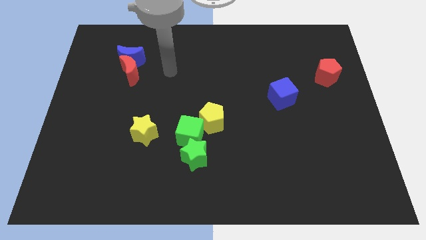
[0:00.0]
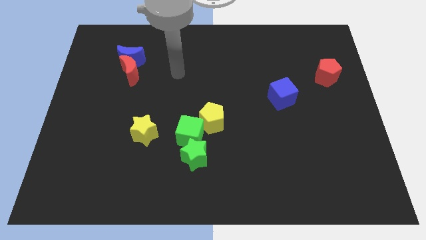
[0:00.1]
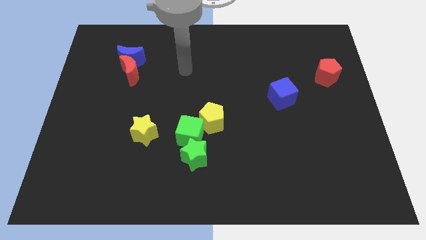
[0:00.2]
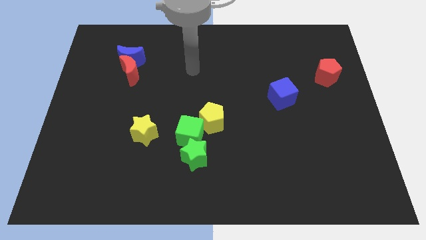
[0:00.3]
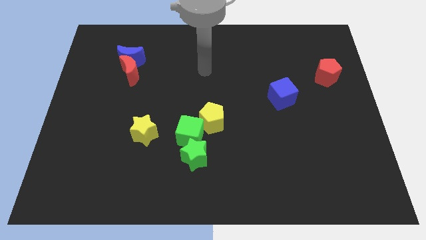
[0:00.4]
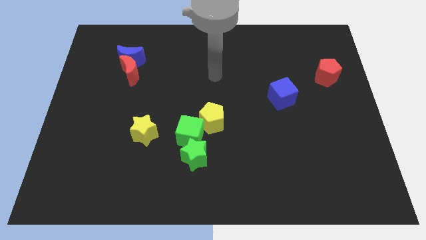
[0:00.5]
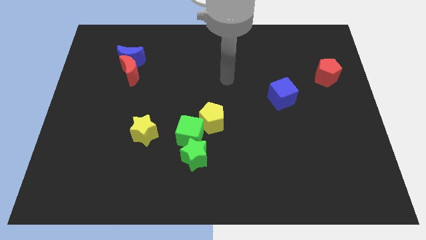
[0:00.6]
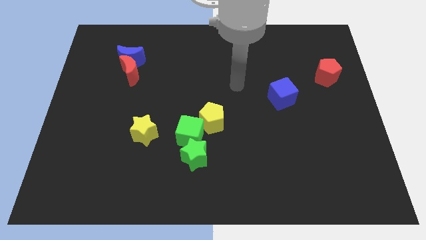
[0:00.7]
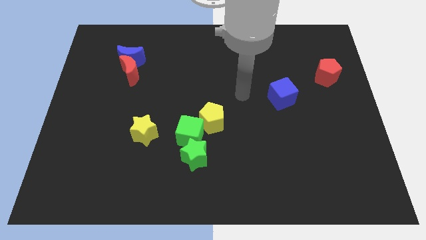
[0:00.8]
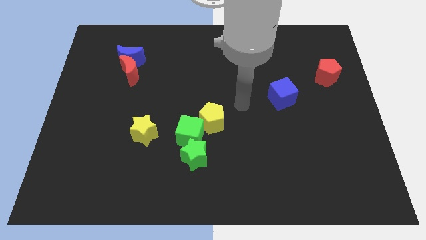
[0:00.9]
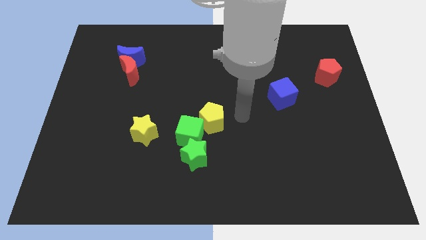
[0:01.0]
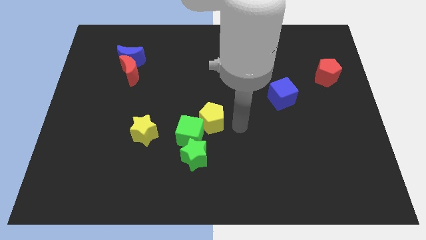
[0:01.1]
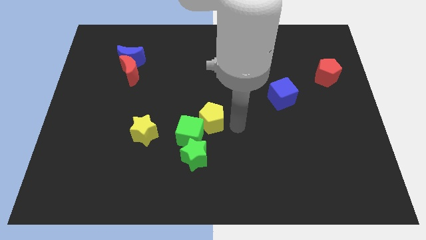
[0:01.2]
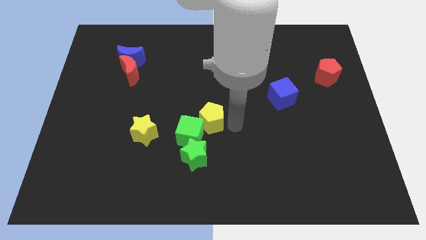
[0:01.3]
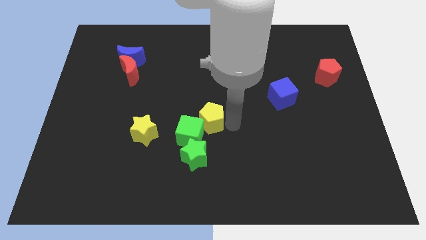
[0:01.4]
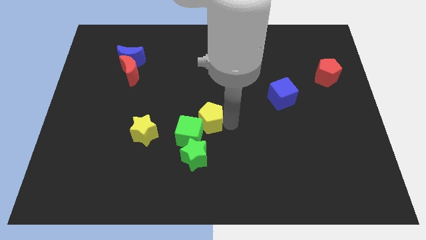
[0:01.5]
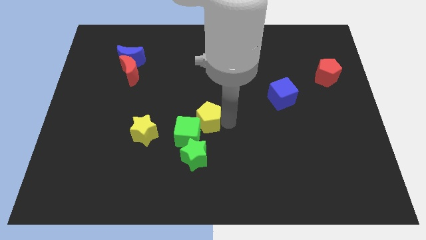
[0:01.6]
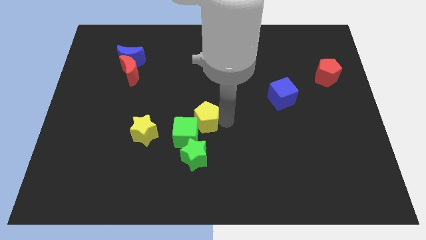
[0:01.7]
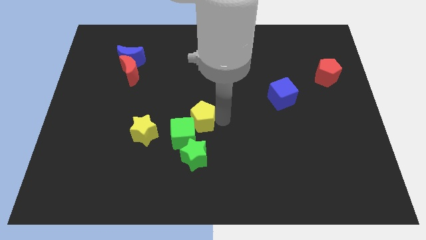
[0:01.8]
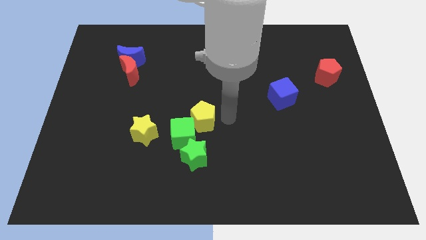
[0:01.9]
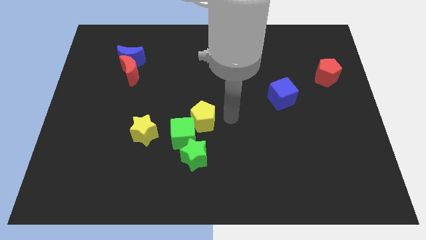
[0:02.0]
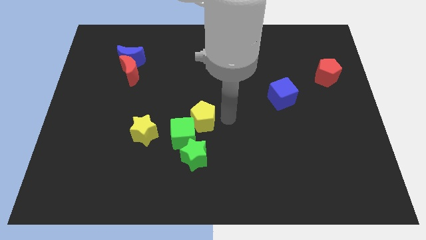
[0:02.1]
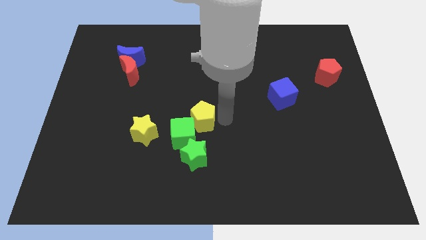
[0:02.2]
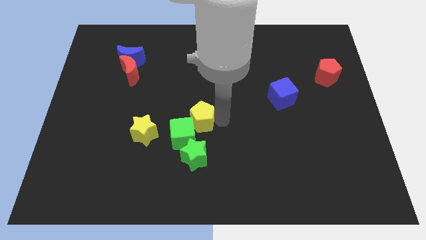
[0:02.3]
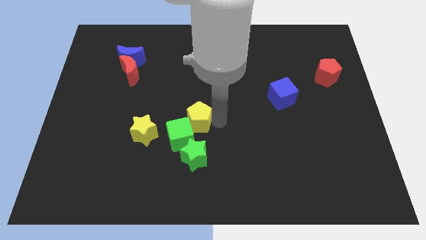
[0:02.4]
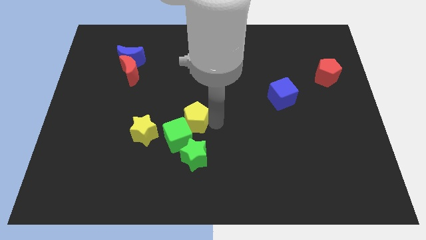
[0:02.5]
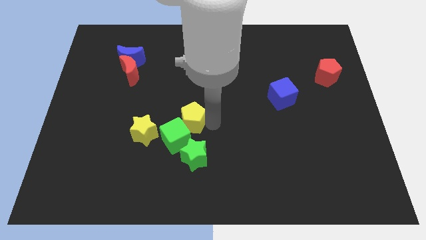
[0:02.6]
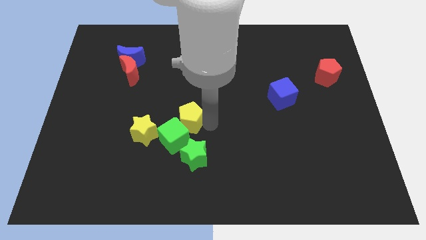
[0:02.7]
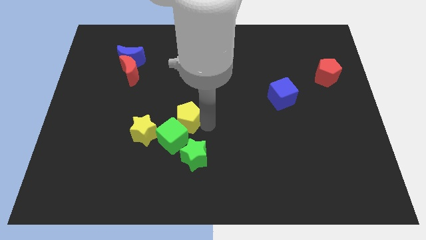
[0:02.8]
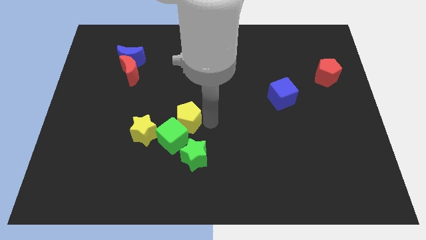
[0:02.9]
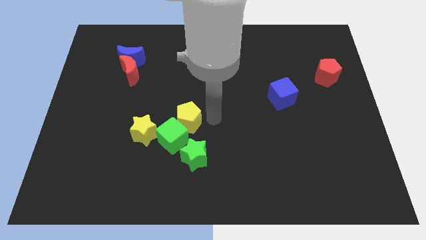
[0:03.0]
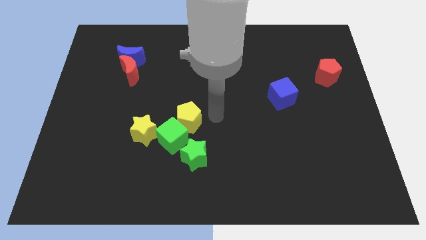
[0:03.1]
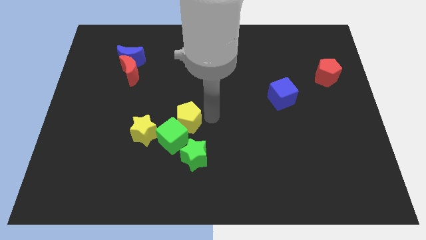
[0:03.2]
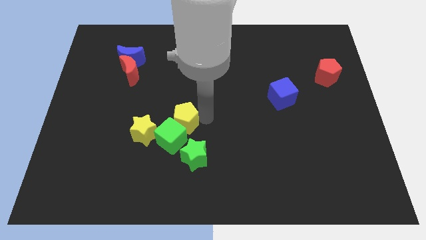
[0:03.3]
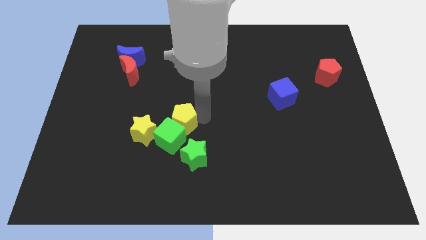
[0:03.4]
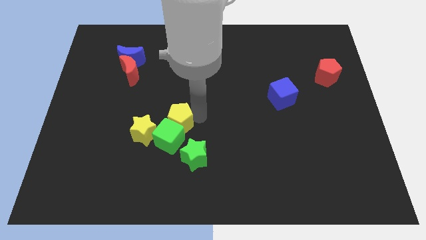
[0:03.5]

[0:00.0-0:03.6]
push the yellow pentagon to the left a little bit

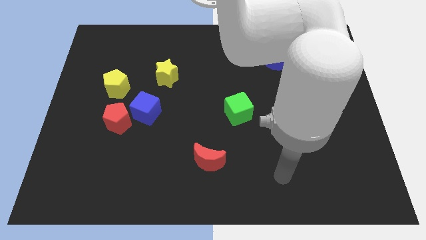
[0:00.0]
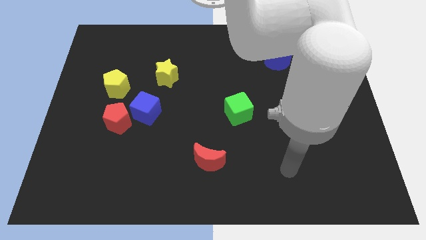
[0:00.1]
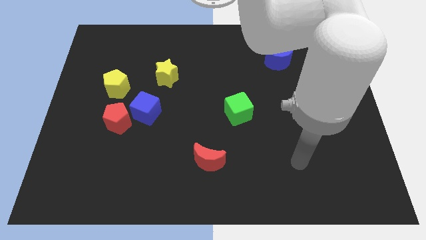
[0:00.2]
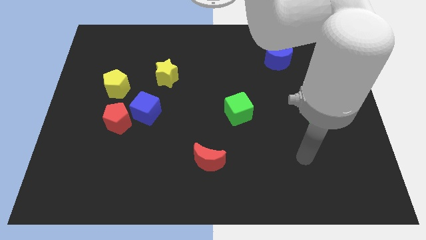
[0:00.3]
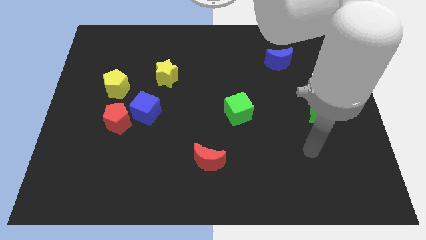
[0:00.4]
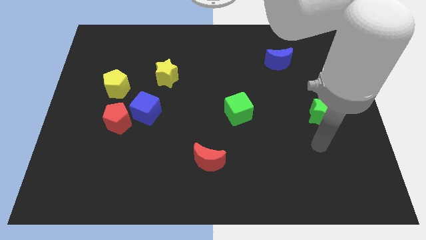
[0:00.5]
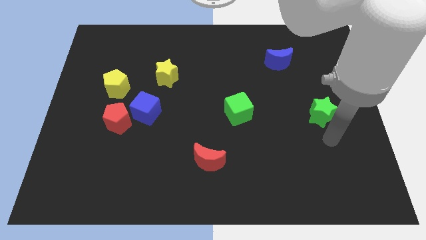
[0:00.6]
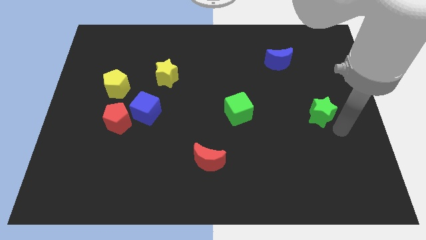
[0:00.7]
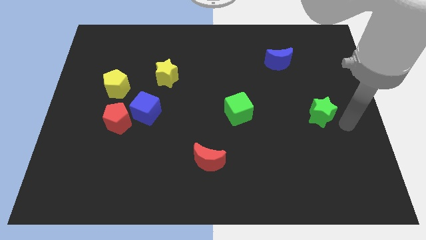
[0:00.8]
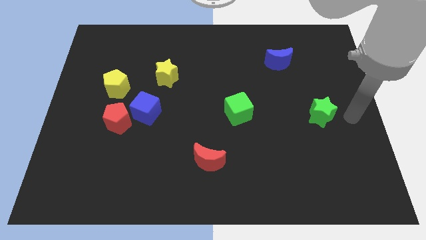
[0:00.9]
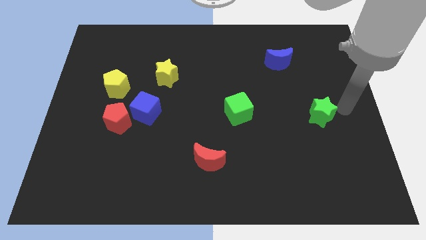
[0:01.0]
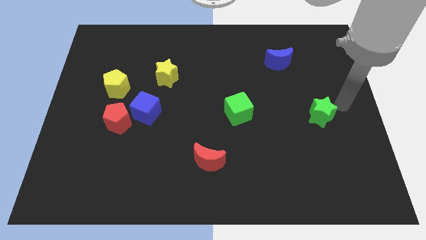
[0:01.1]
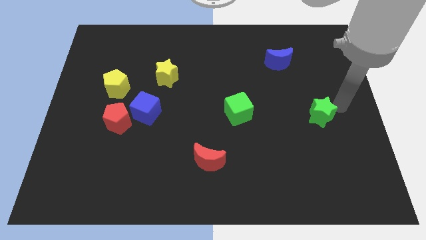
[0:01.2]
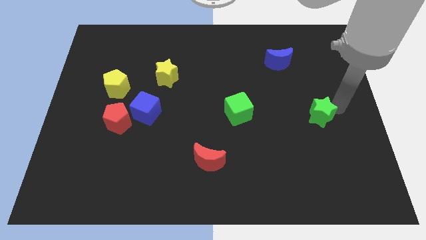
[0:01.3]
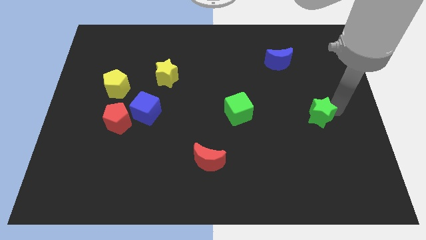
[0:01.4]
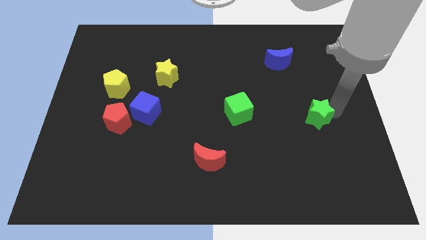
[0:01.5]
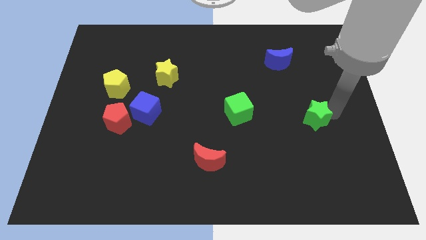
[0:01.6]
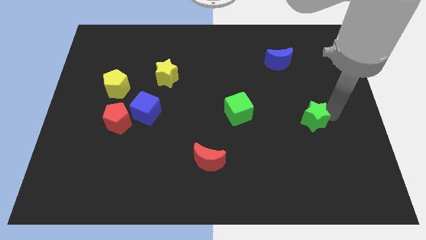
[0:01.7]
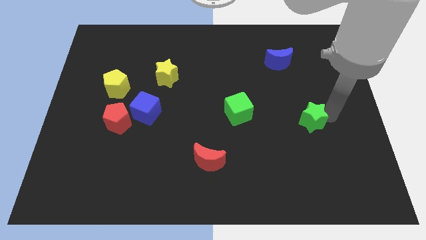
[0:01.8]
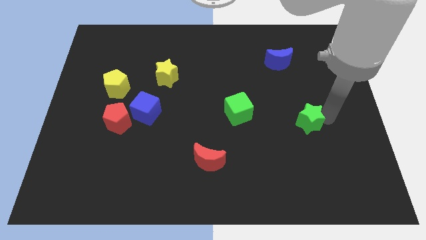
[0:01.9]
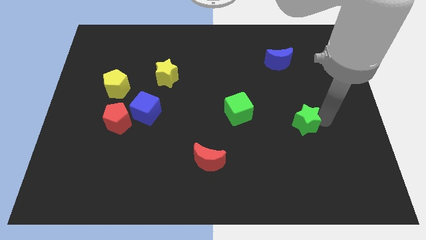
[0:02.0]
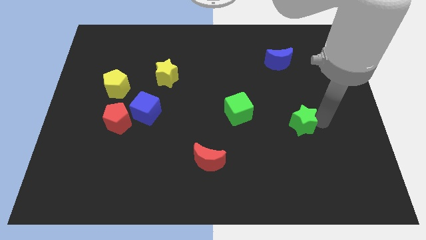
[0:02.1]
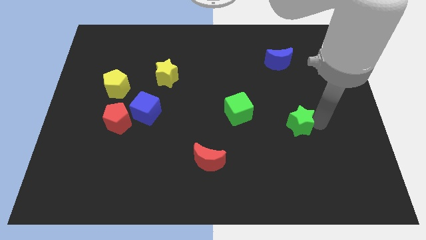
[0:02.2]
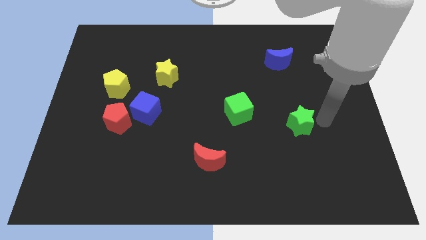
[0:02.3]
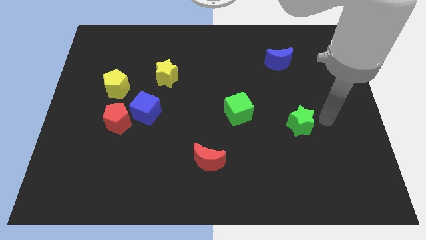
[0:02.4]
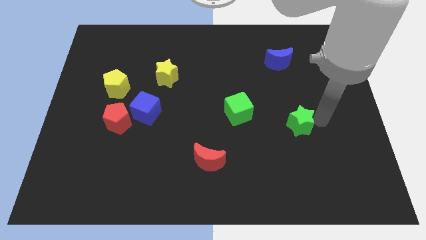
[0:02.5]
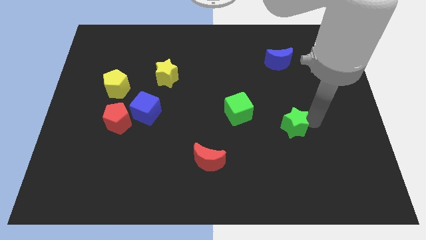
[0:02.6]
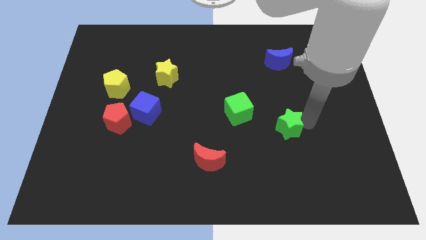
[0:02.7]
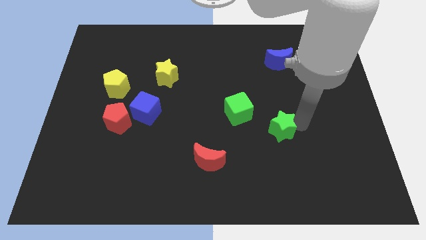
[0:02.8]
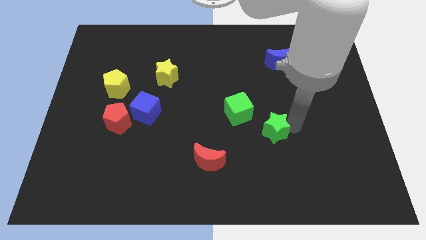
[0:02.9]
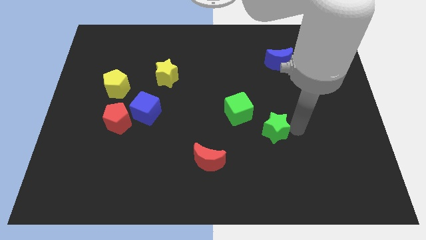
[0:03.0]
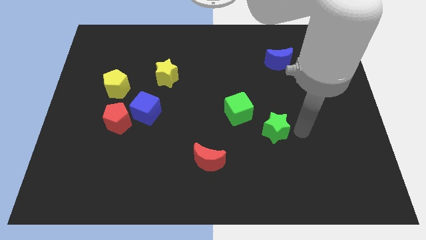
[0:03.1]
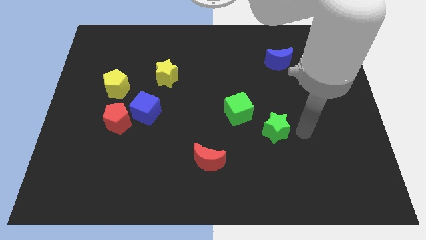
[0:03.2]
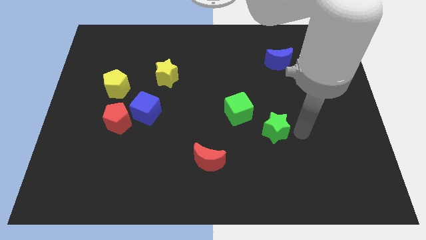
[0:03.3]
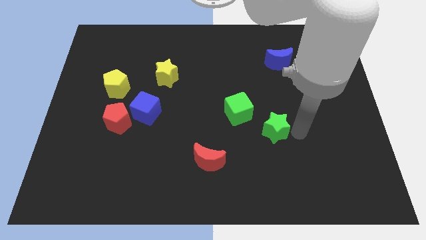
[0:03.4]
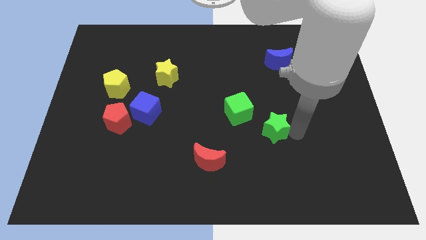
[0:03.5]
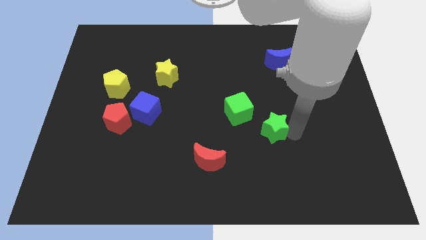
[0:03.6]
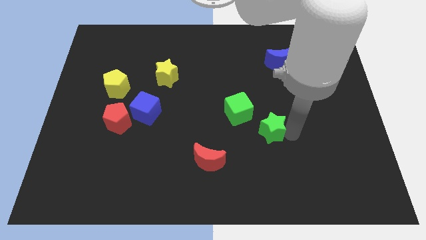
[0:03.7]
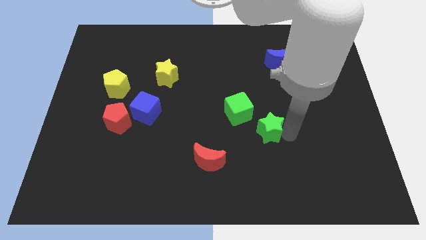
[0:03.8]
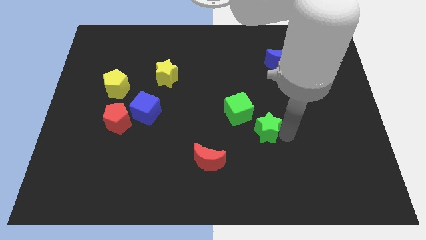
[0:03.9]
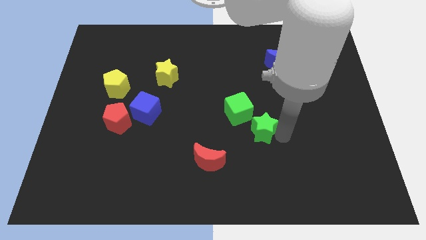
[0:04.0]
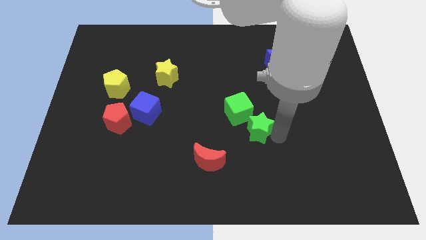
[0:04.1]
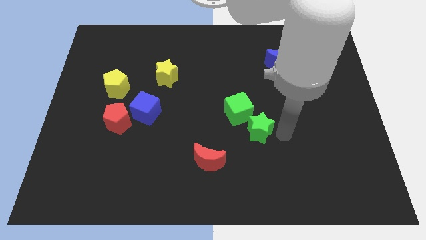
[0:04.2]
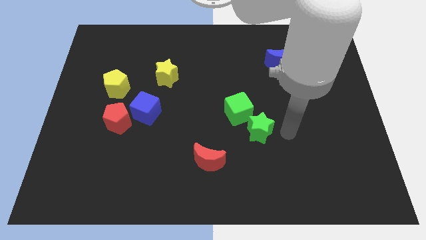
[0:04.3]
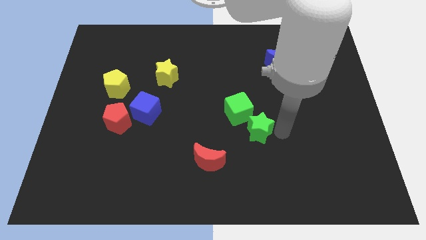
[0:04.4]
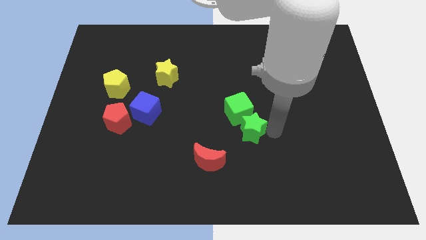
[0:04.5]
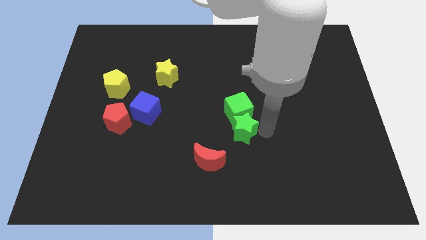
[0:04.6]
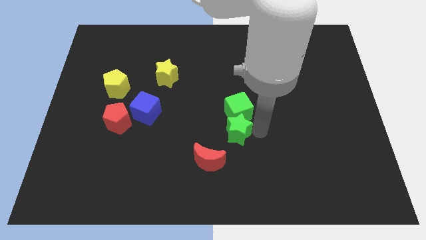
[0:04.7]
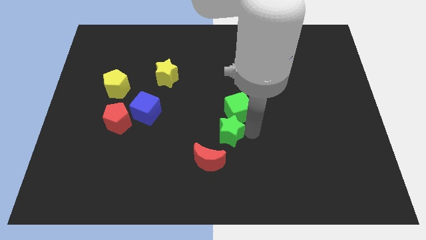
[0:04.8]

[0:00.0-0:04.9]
push the green star left

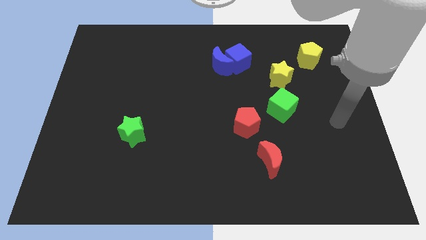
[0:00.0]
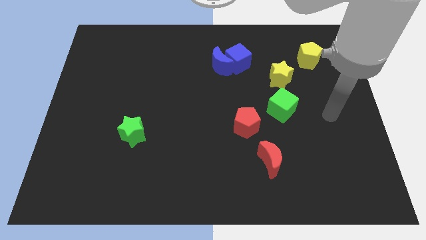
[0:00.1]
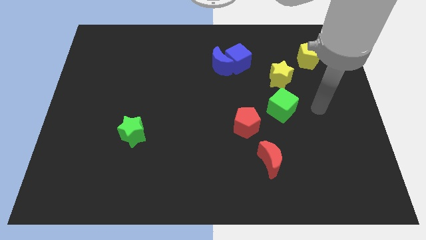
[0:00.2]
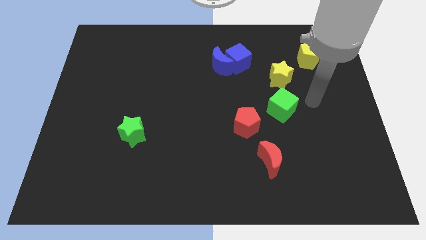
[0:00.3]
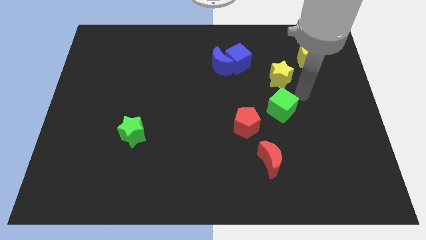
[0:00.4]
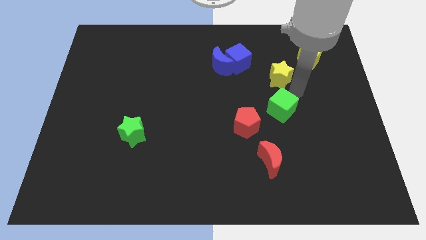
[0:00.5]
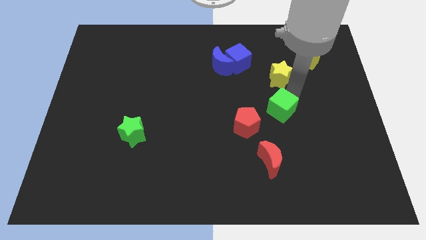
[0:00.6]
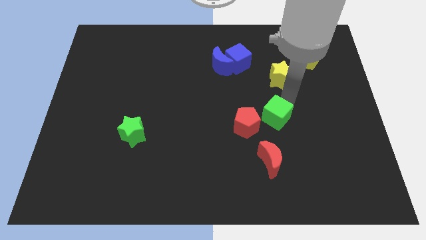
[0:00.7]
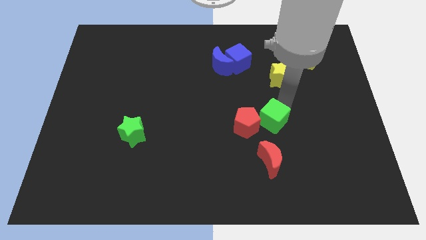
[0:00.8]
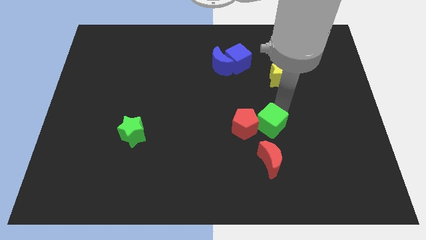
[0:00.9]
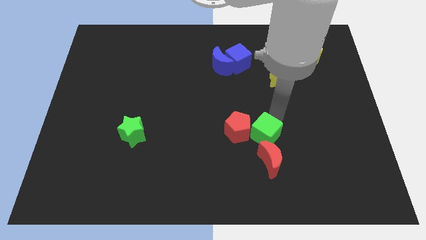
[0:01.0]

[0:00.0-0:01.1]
slightly push the green cube diagonally down and to the left
